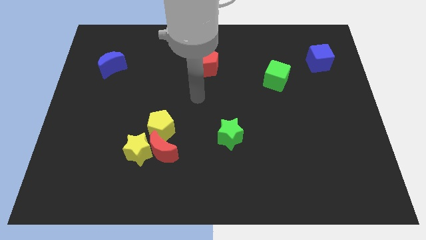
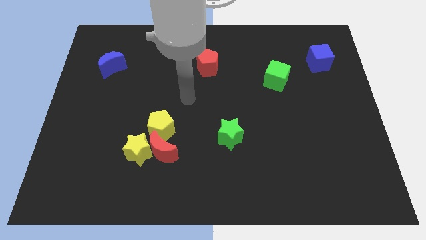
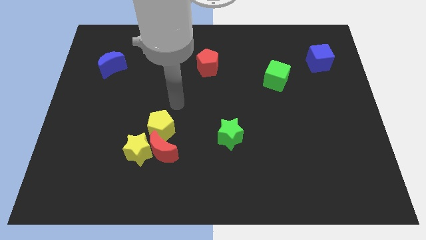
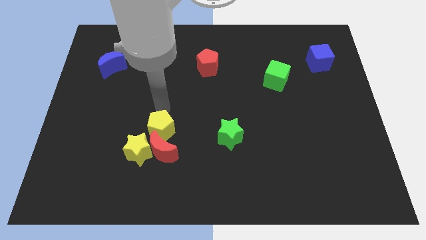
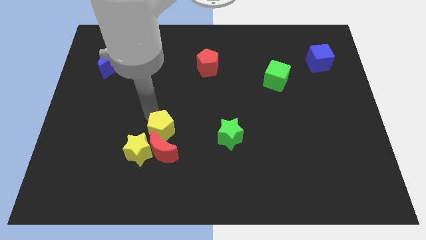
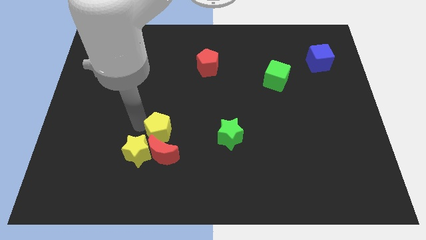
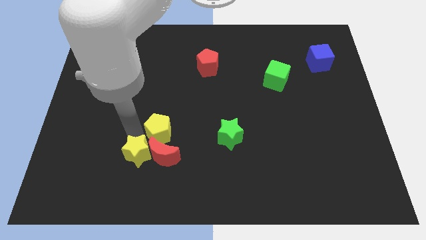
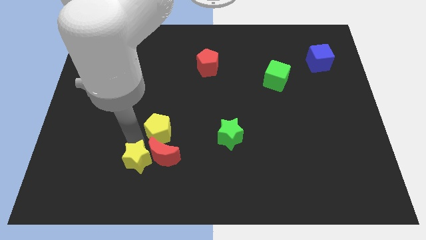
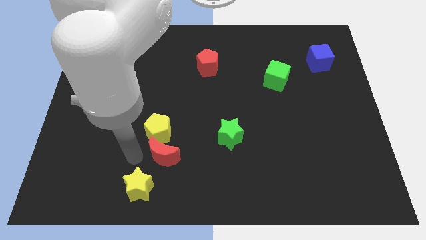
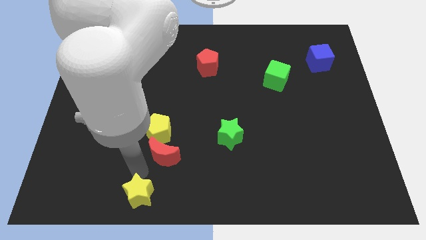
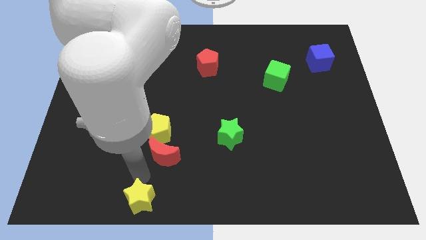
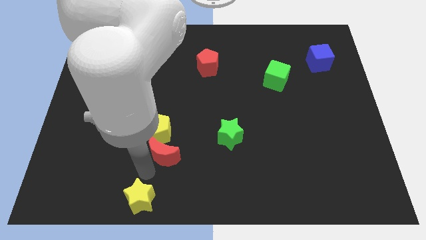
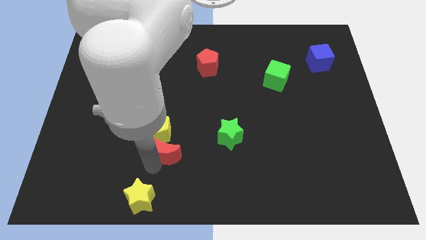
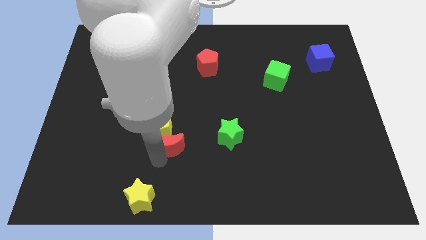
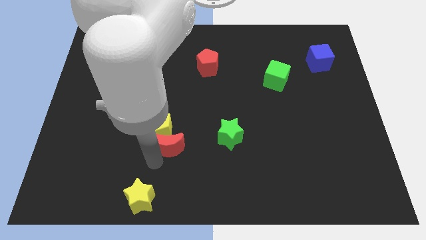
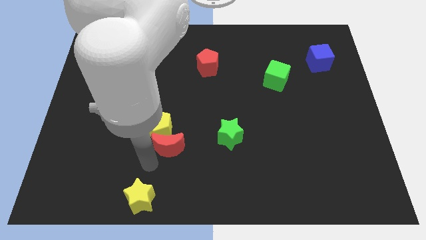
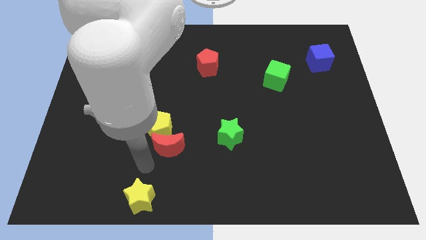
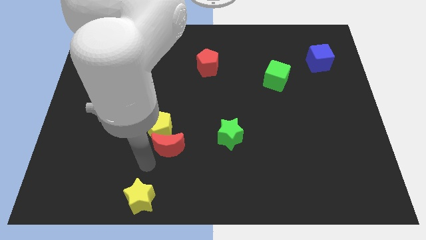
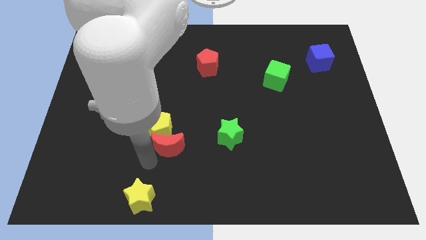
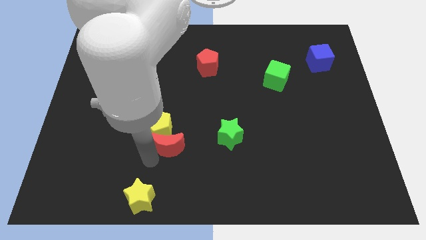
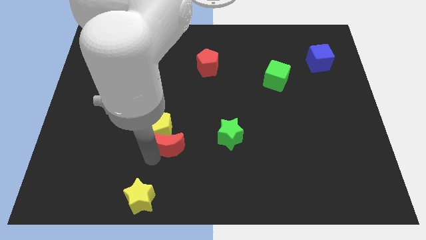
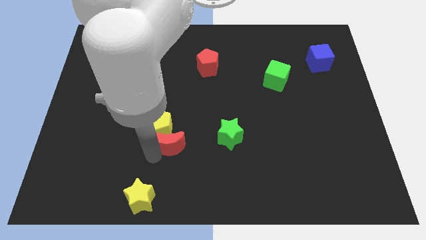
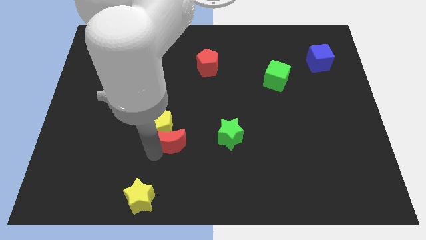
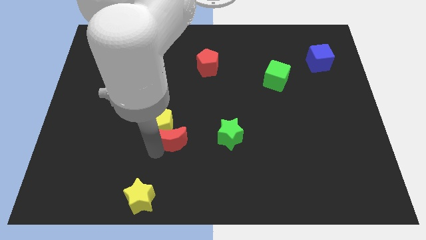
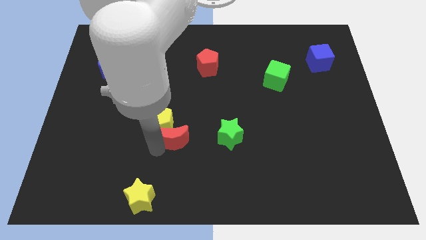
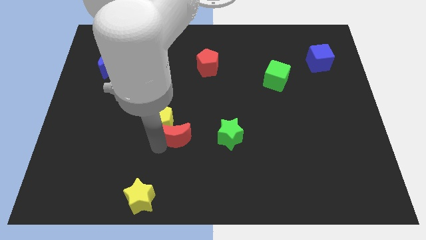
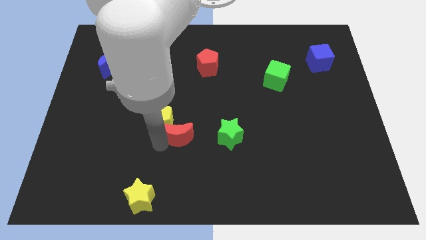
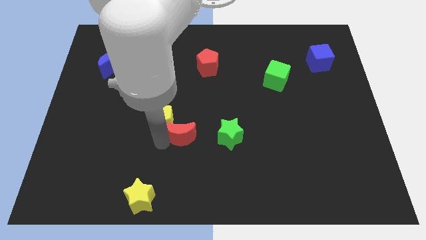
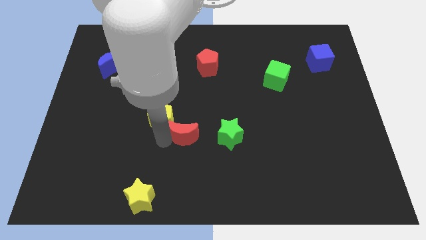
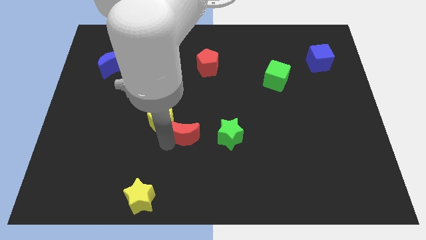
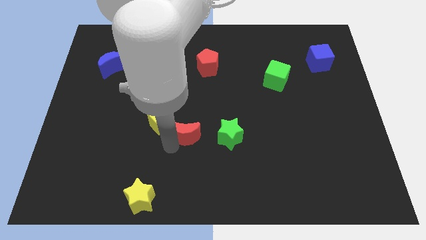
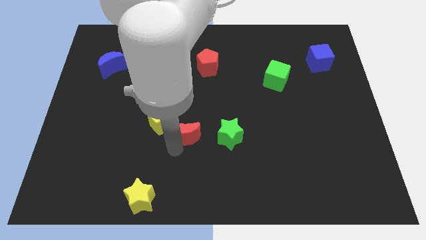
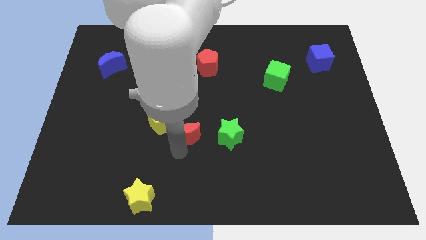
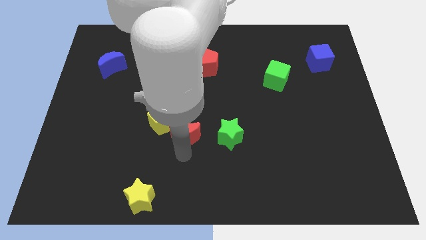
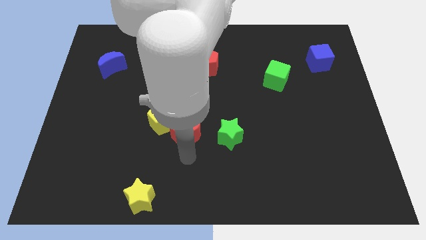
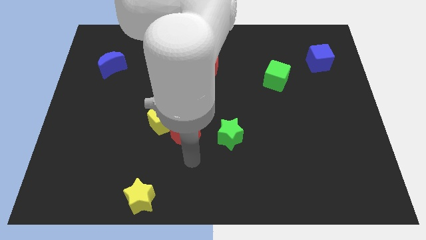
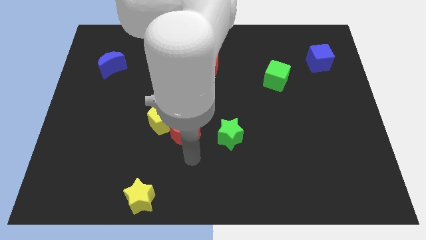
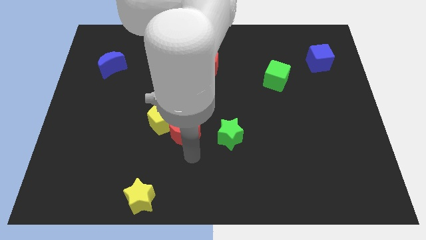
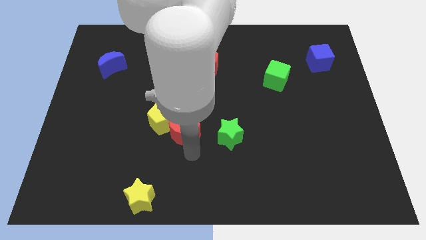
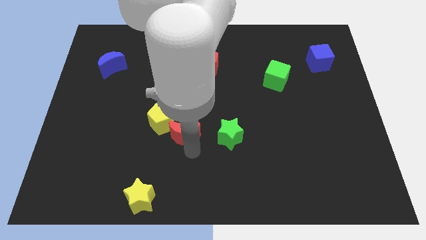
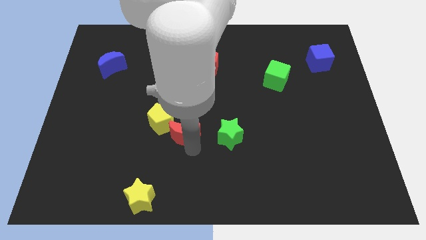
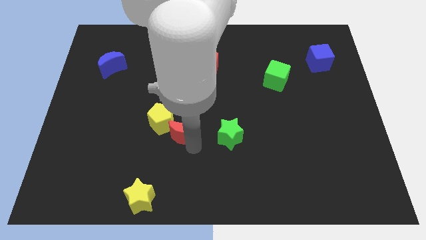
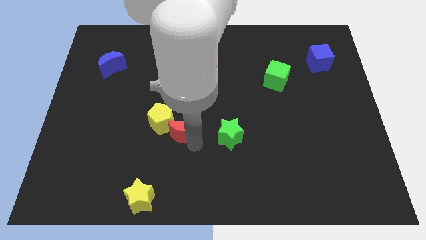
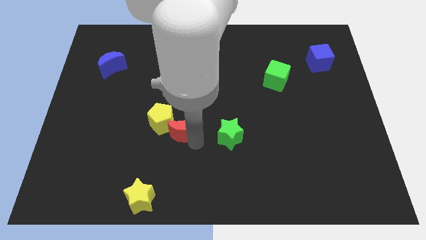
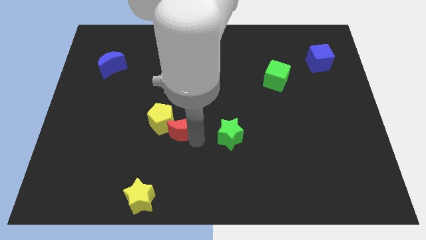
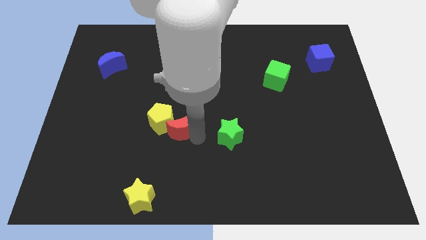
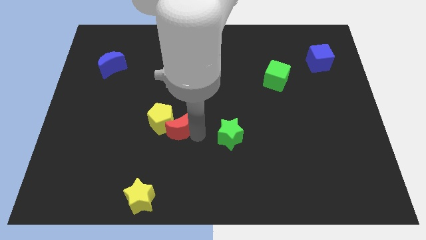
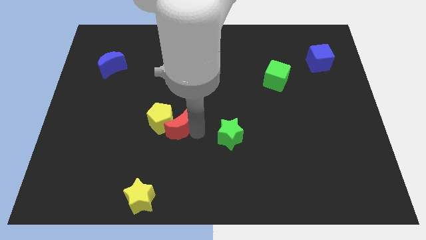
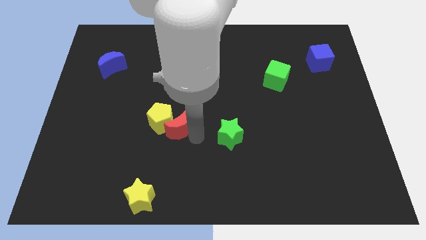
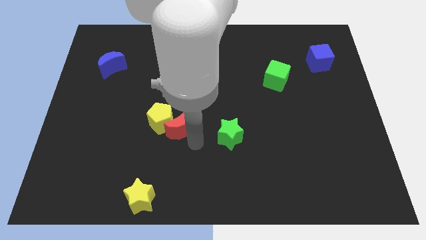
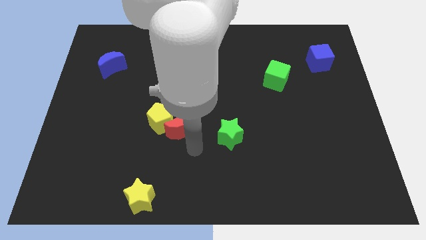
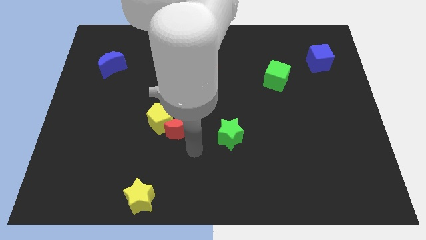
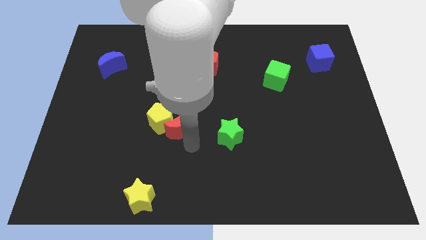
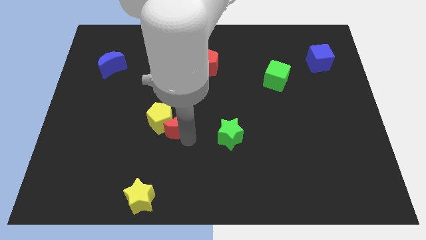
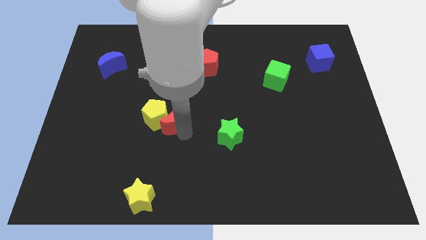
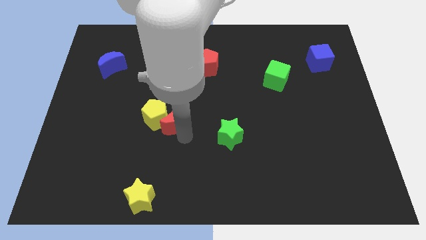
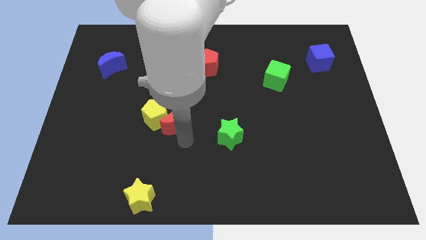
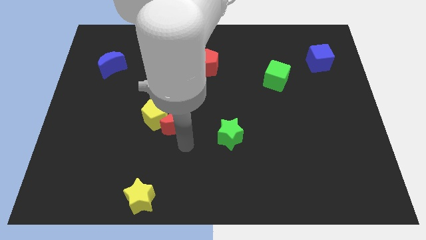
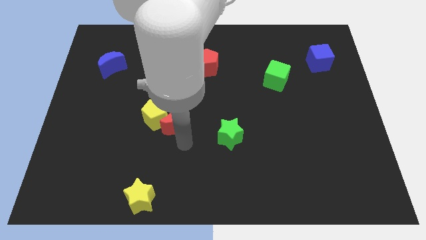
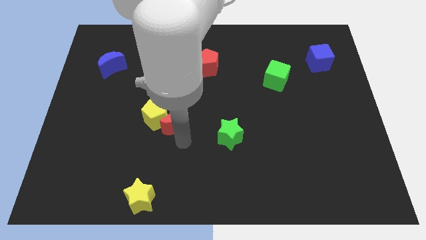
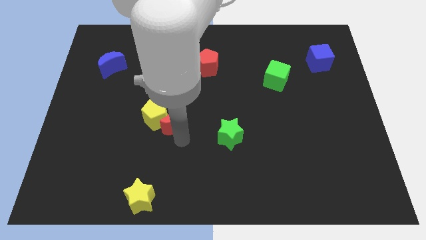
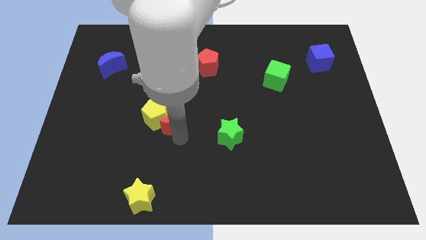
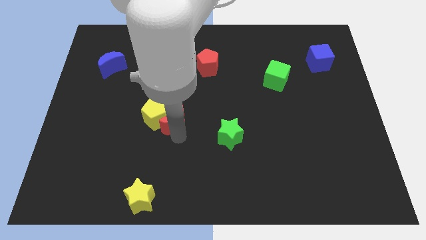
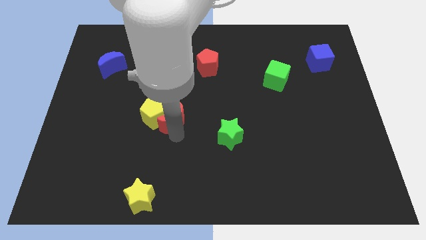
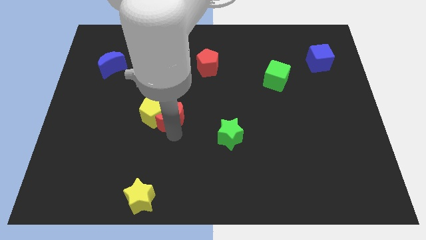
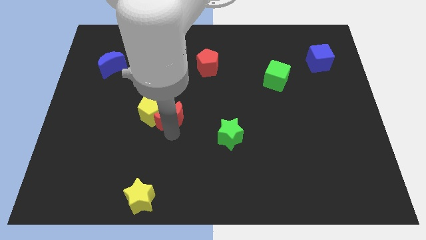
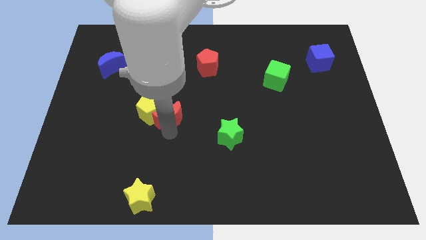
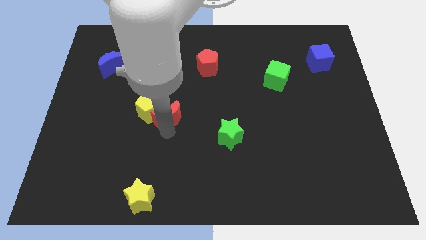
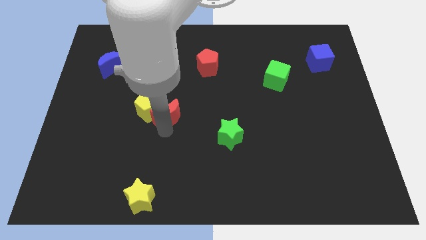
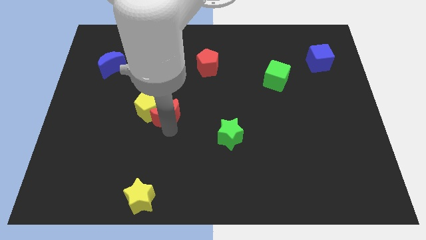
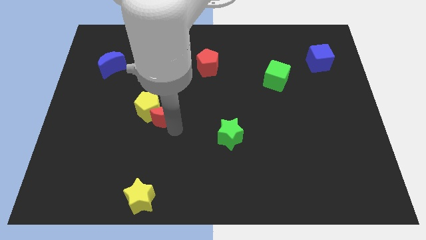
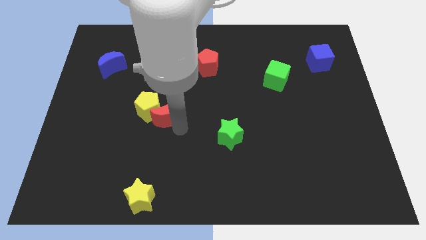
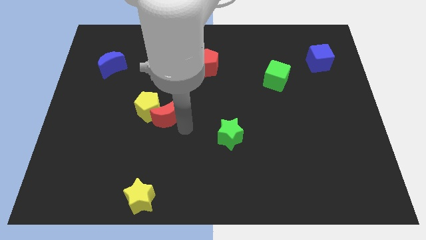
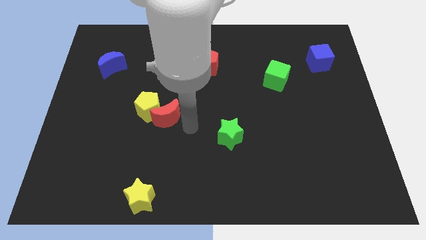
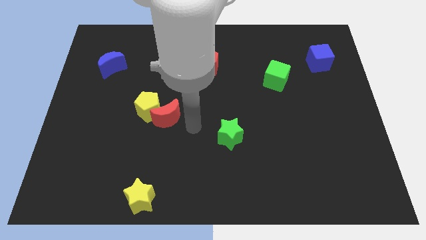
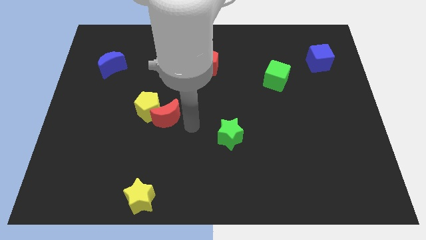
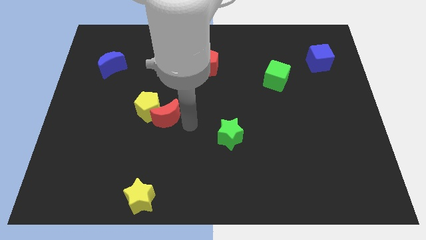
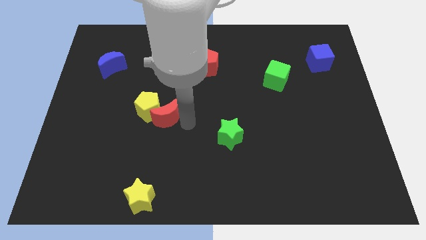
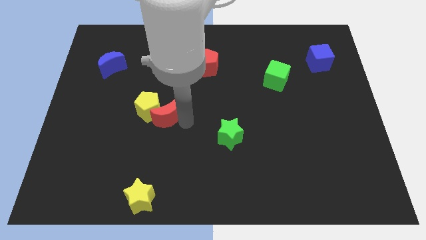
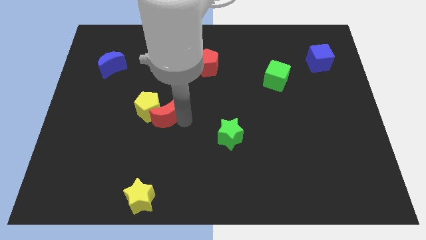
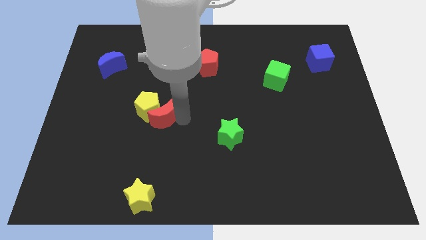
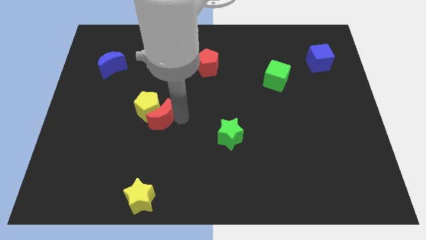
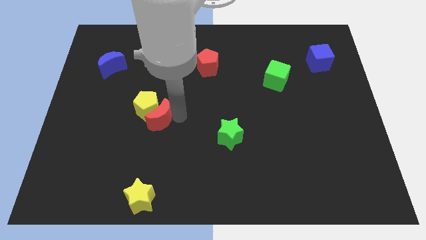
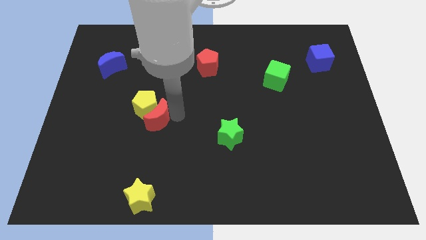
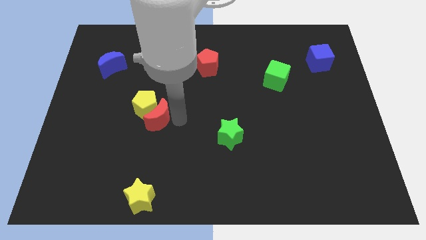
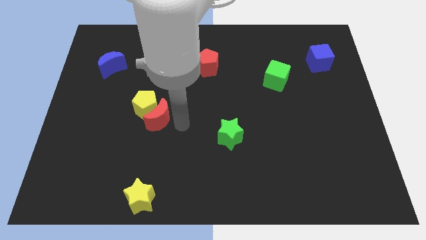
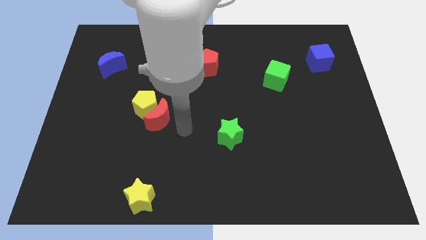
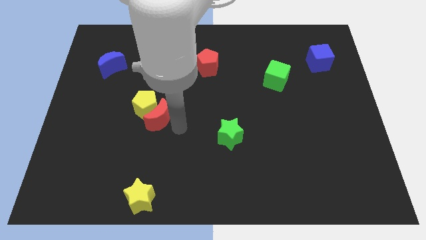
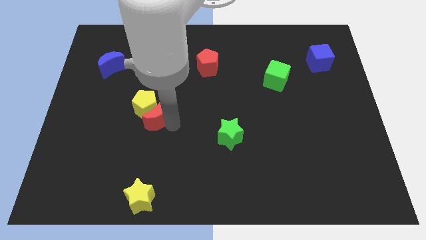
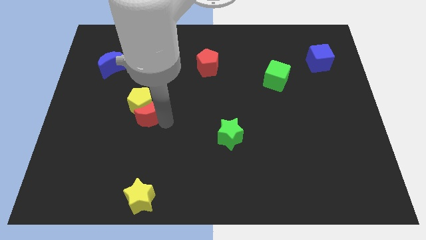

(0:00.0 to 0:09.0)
push the red moon upwards and then to the left a little bit
